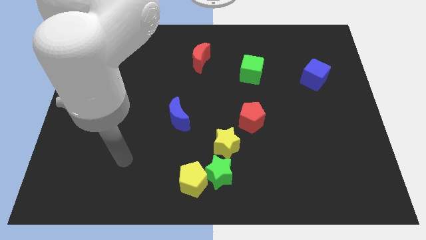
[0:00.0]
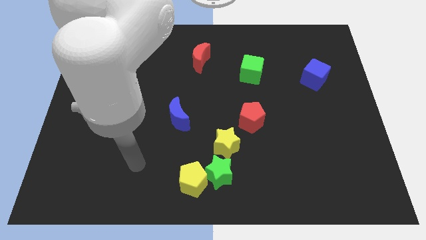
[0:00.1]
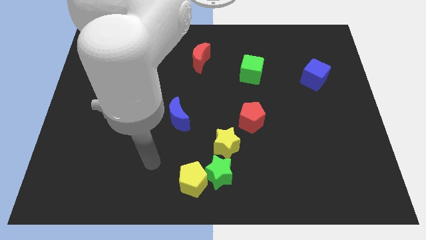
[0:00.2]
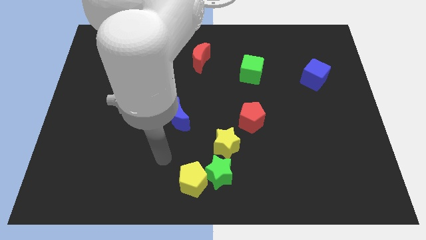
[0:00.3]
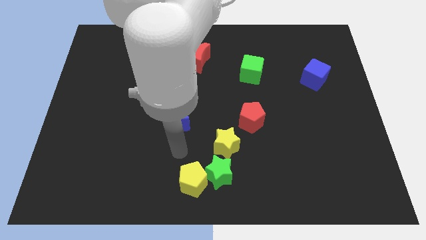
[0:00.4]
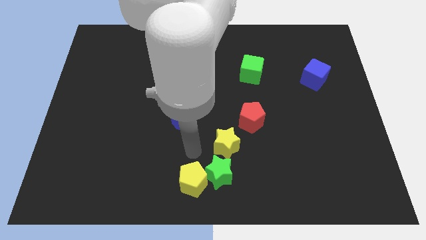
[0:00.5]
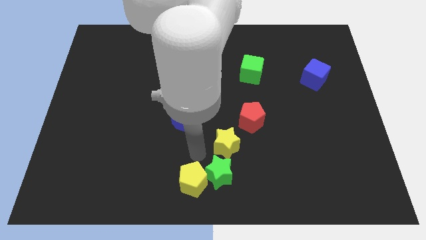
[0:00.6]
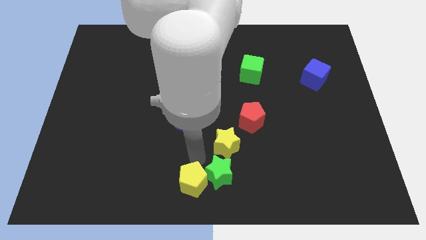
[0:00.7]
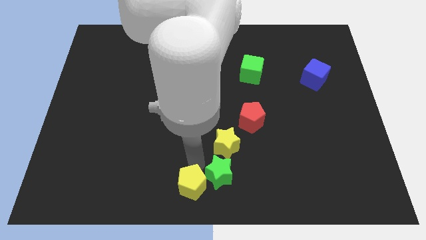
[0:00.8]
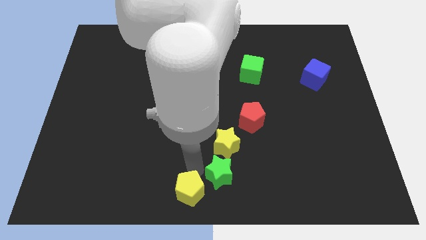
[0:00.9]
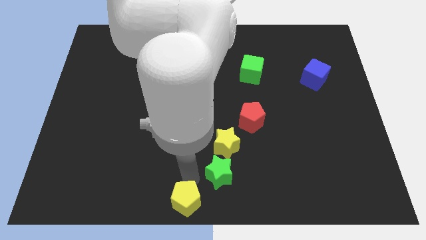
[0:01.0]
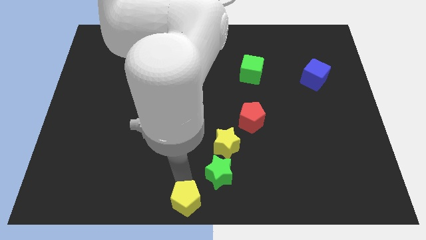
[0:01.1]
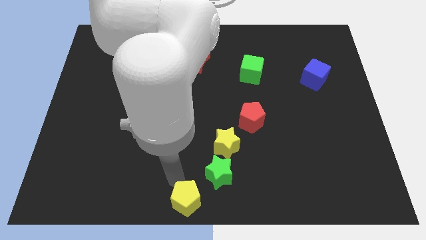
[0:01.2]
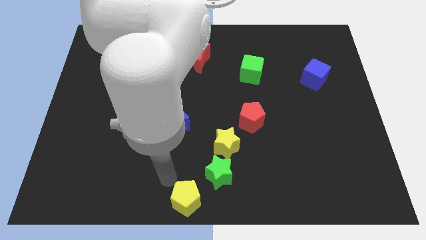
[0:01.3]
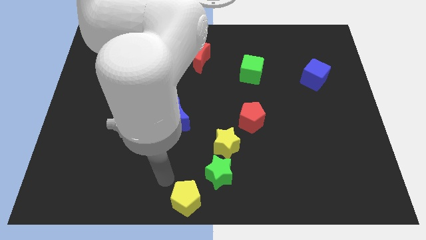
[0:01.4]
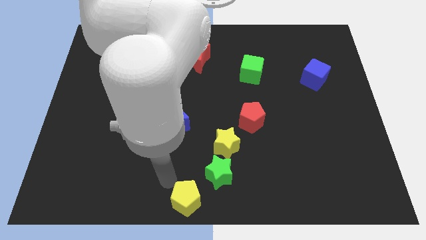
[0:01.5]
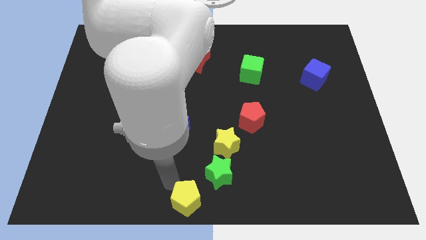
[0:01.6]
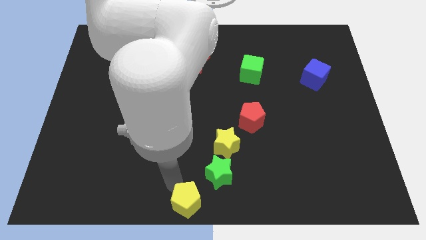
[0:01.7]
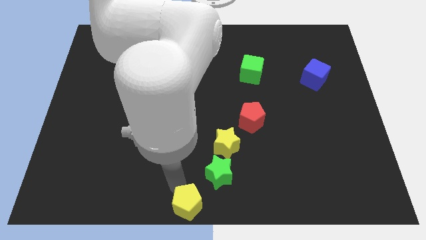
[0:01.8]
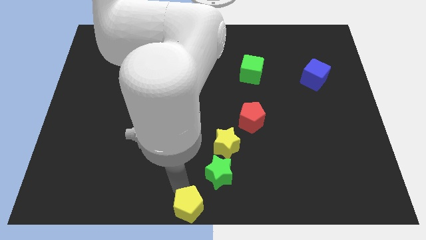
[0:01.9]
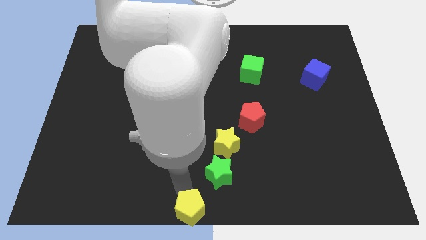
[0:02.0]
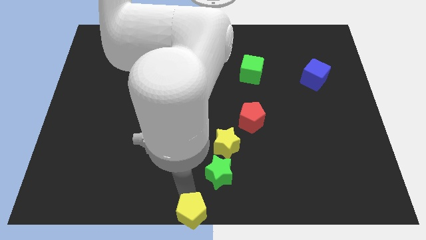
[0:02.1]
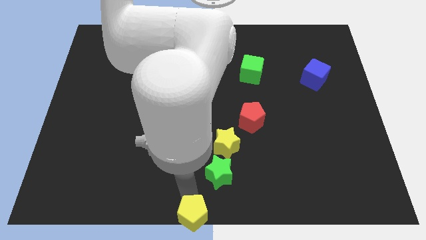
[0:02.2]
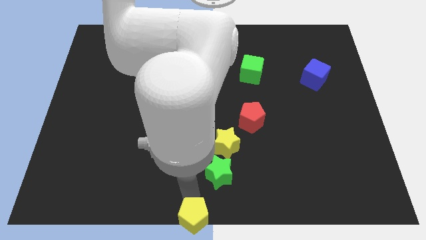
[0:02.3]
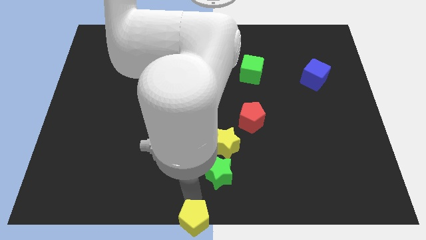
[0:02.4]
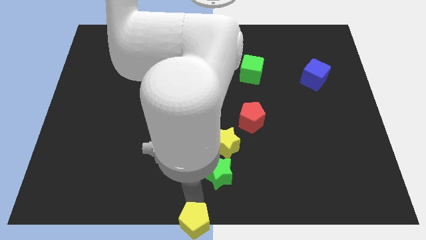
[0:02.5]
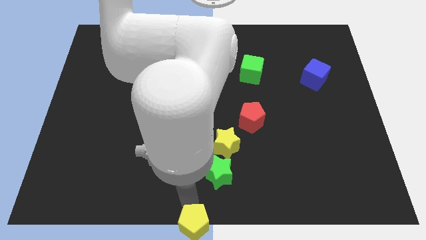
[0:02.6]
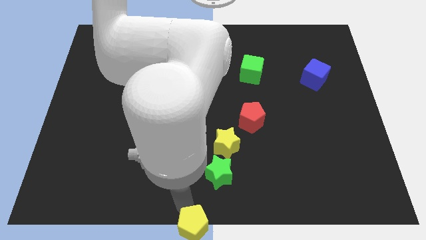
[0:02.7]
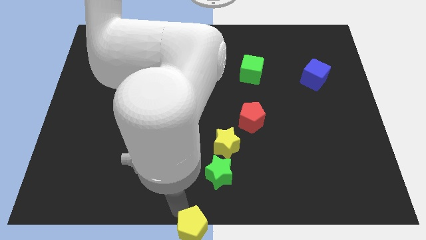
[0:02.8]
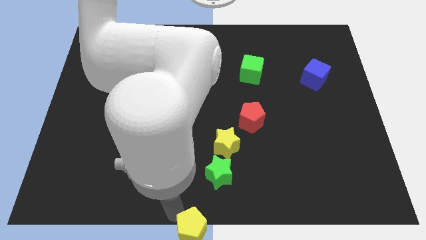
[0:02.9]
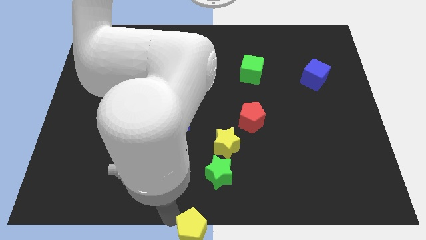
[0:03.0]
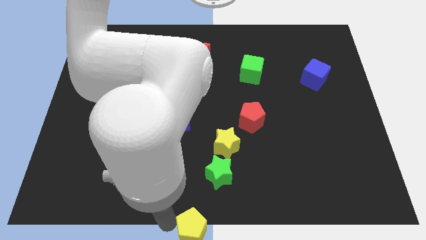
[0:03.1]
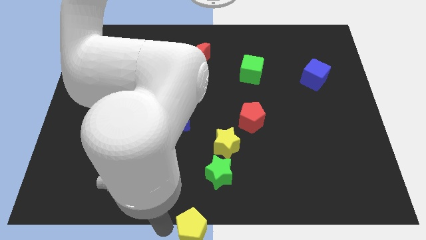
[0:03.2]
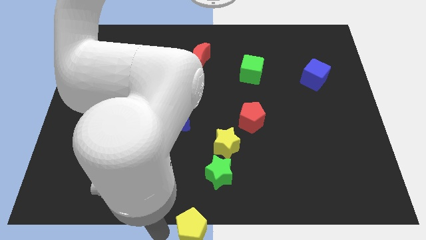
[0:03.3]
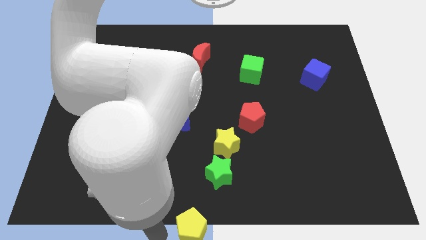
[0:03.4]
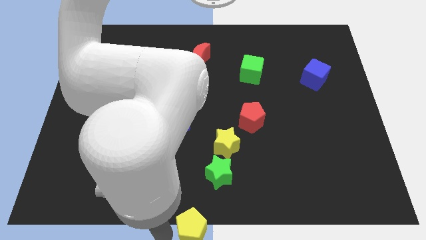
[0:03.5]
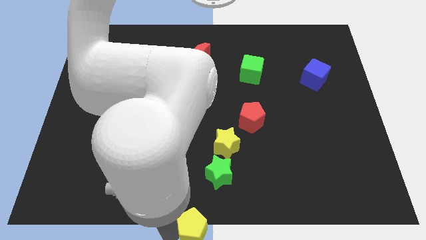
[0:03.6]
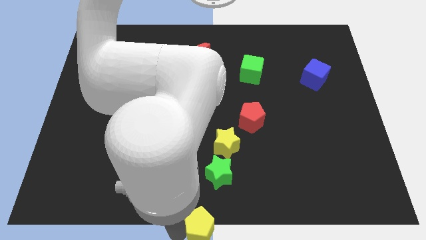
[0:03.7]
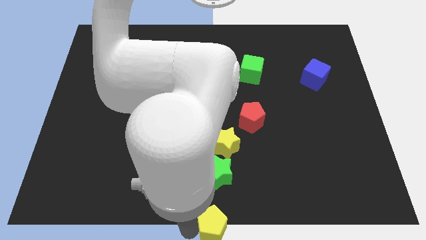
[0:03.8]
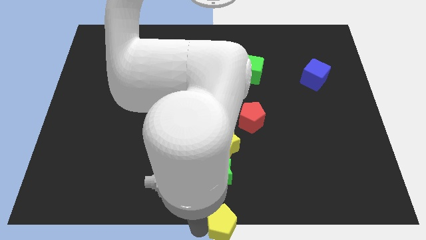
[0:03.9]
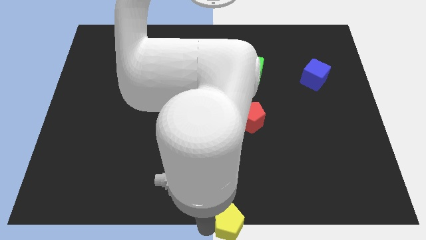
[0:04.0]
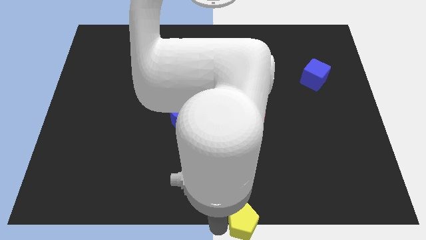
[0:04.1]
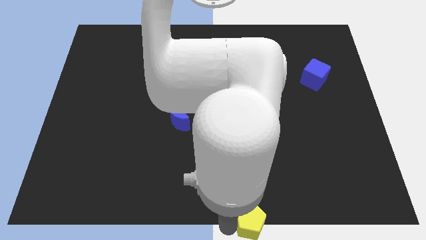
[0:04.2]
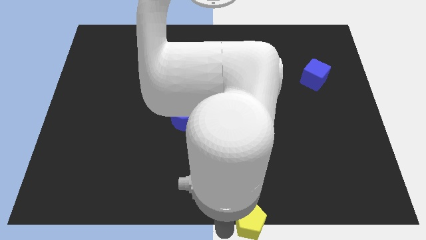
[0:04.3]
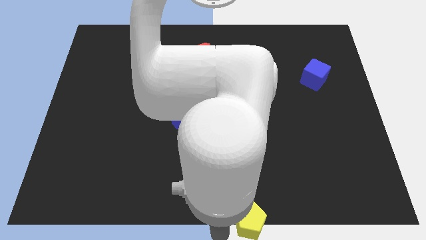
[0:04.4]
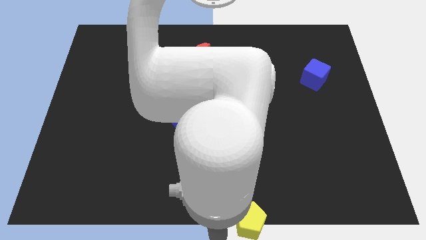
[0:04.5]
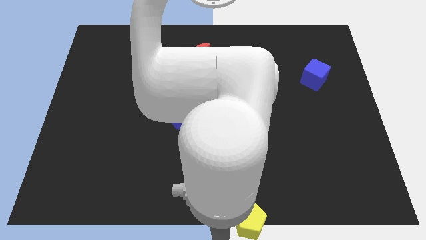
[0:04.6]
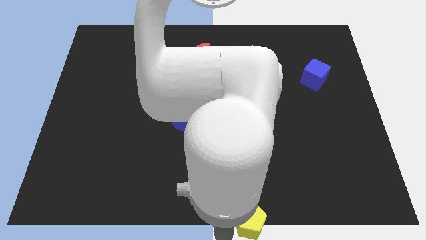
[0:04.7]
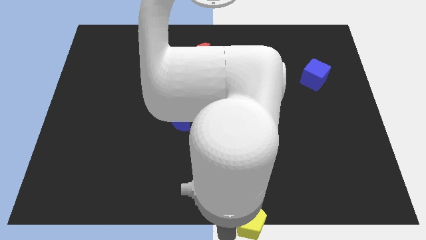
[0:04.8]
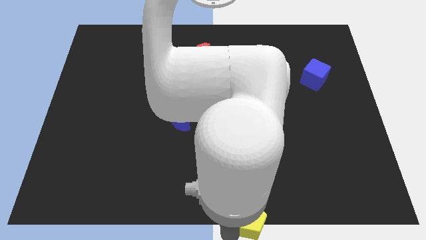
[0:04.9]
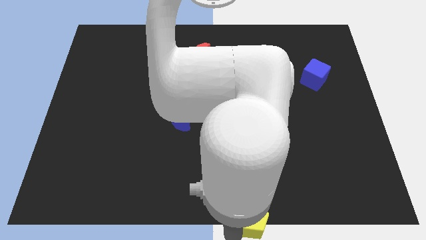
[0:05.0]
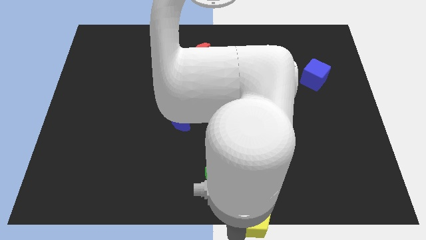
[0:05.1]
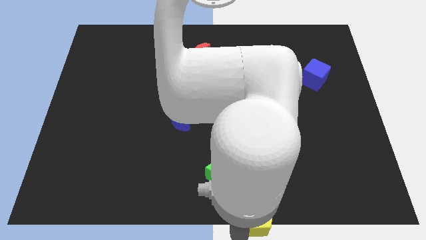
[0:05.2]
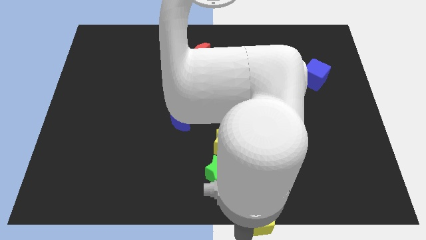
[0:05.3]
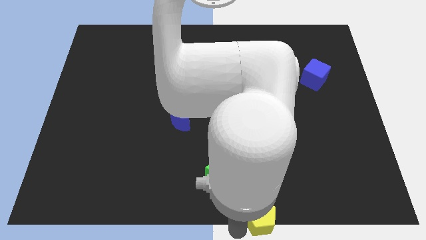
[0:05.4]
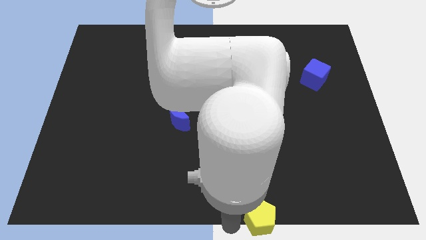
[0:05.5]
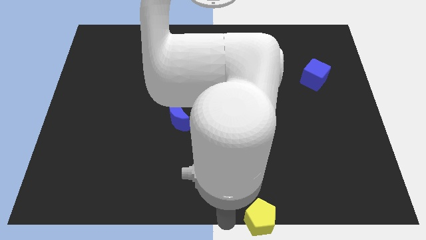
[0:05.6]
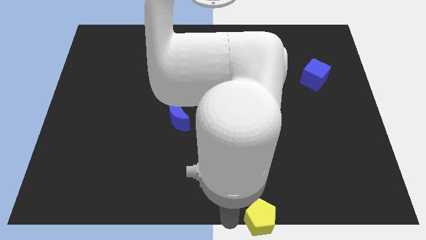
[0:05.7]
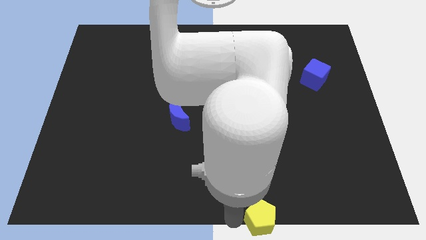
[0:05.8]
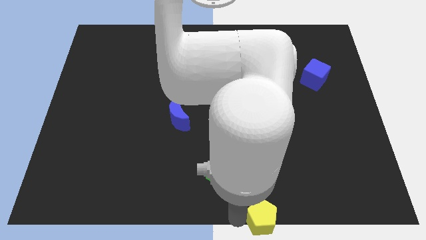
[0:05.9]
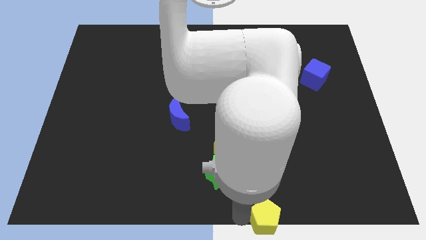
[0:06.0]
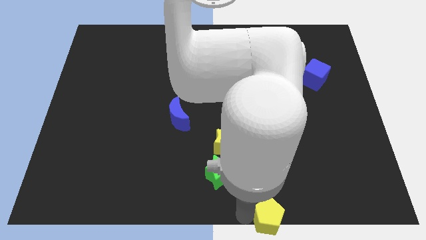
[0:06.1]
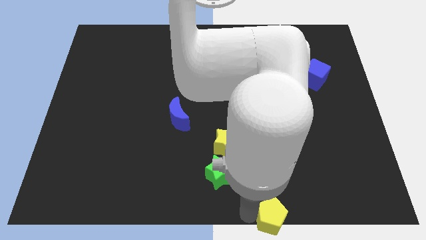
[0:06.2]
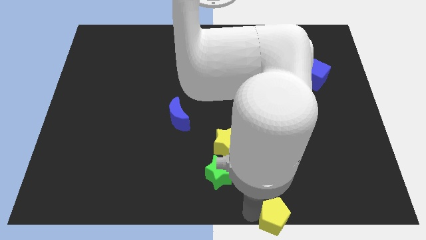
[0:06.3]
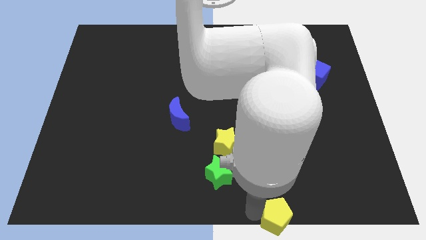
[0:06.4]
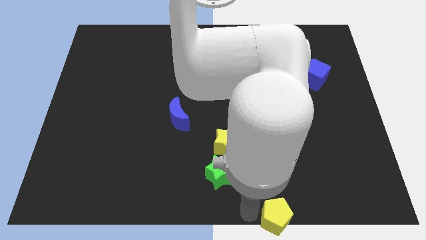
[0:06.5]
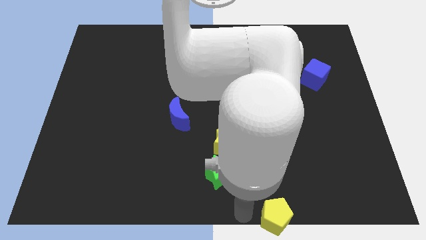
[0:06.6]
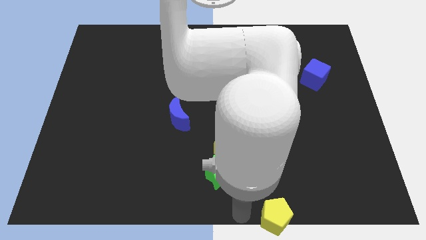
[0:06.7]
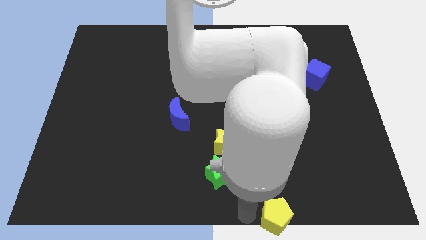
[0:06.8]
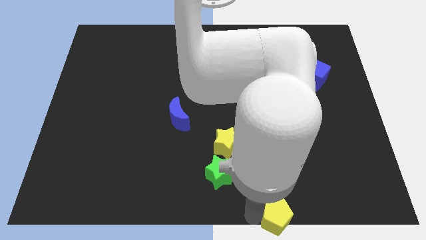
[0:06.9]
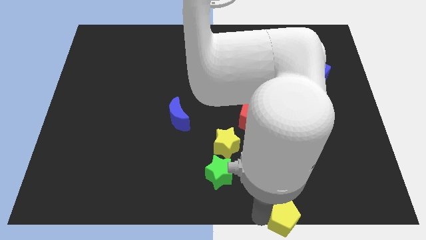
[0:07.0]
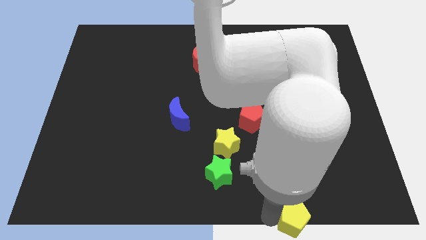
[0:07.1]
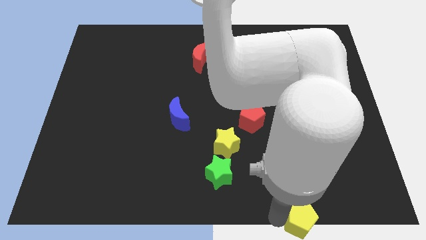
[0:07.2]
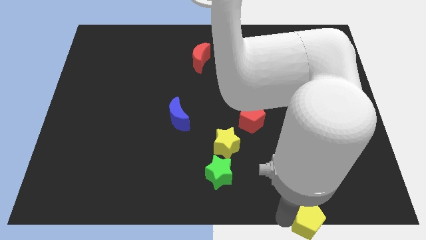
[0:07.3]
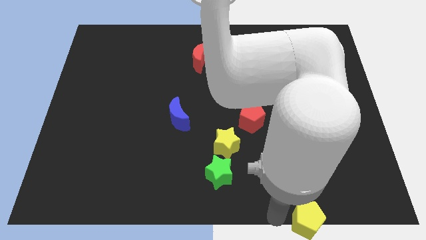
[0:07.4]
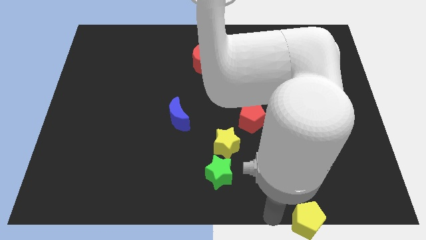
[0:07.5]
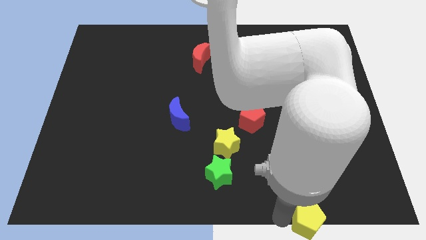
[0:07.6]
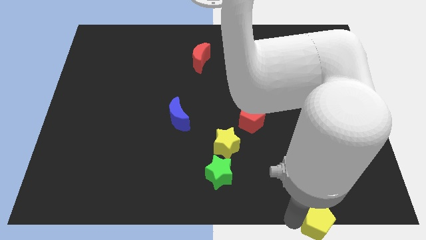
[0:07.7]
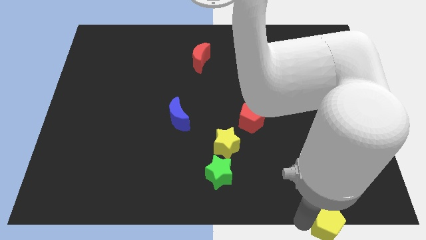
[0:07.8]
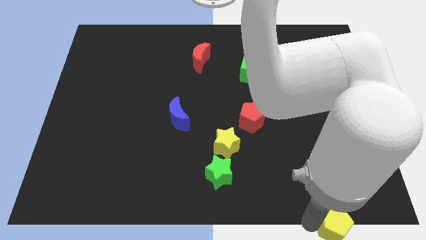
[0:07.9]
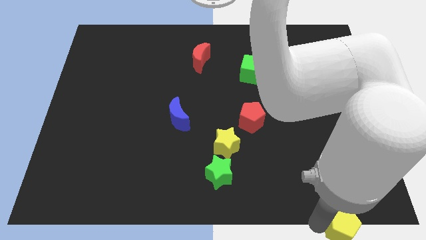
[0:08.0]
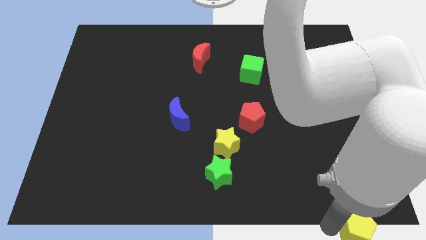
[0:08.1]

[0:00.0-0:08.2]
push the yellow pentagon to the lower right corner
